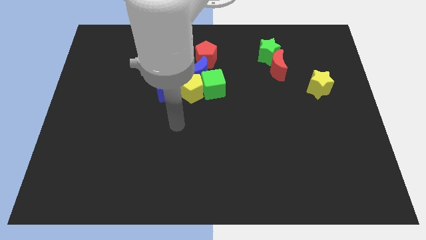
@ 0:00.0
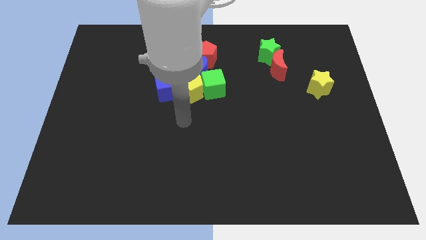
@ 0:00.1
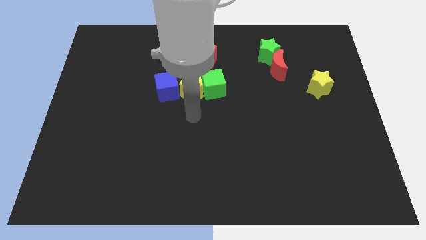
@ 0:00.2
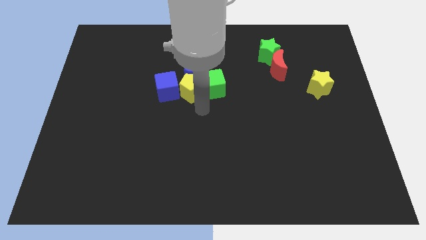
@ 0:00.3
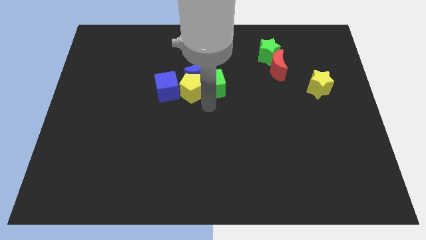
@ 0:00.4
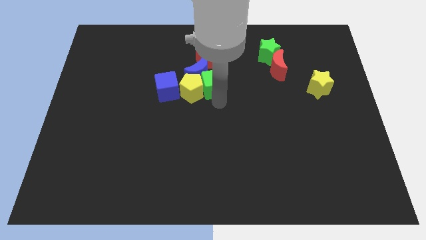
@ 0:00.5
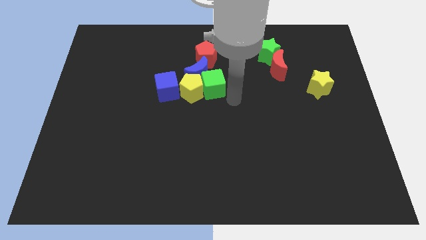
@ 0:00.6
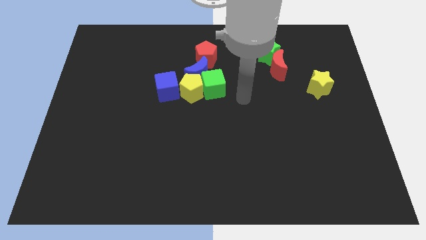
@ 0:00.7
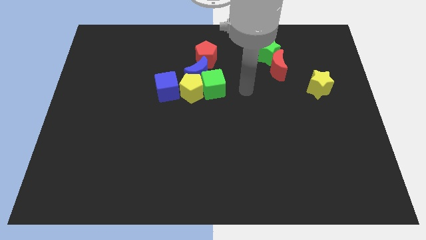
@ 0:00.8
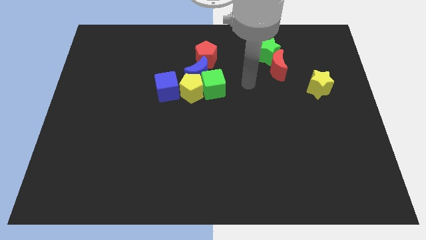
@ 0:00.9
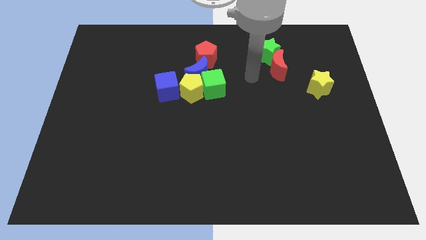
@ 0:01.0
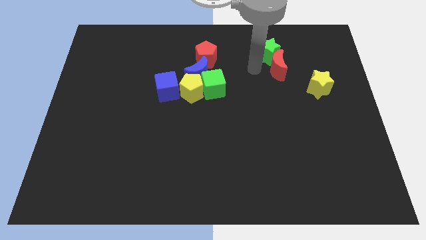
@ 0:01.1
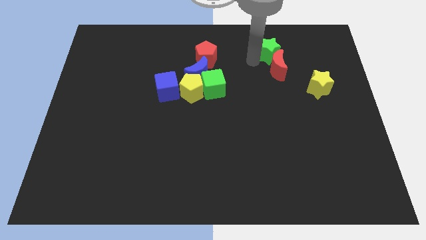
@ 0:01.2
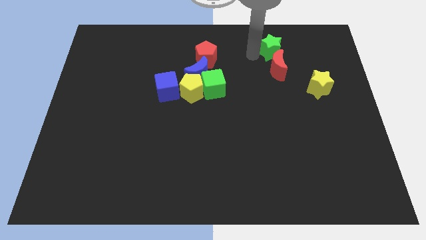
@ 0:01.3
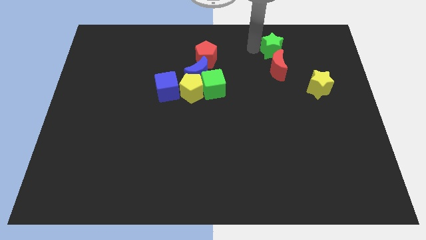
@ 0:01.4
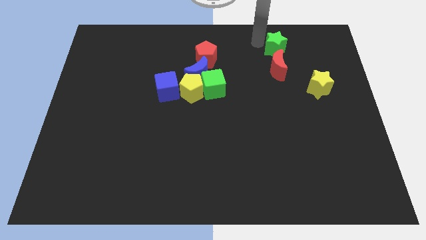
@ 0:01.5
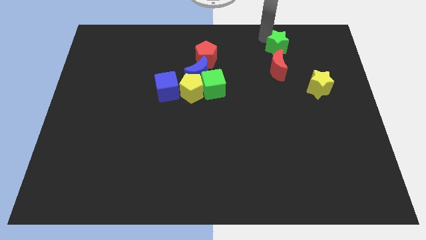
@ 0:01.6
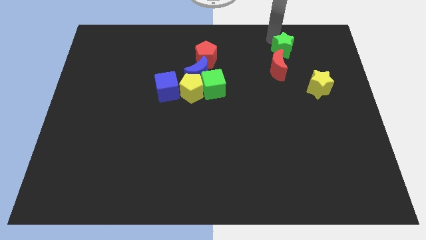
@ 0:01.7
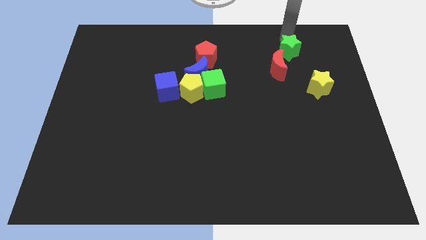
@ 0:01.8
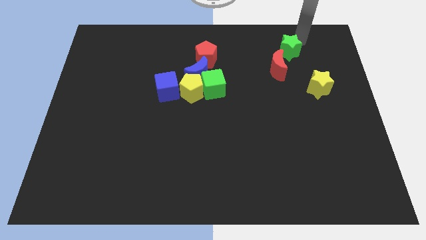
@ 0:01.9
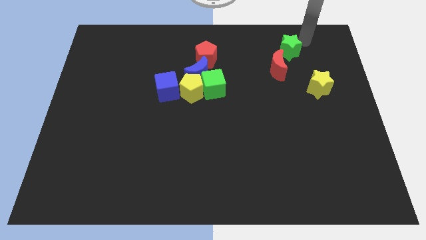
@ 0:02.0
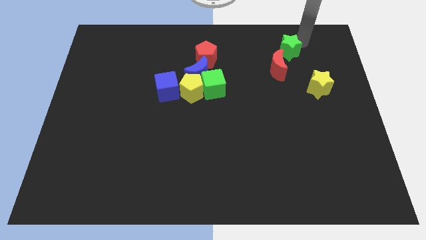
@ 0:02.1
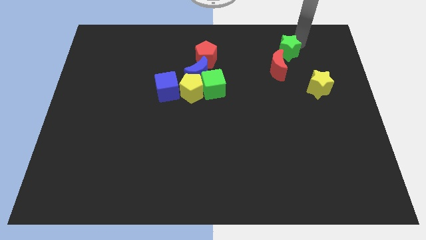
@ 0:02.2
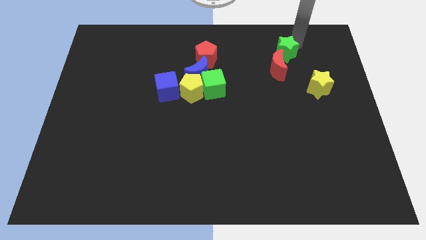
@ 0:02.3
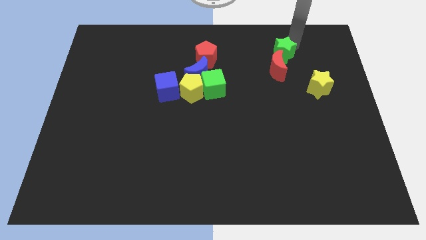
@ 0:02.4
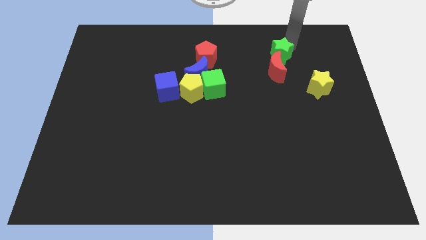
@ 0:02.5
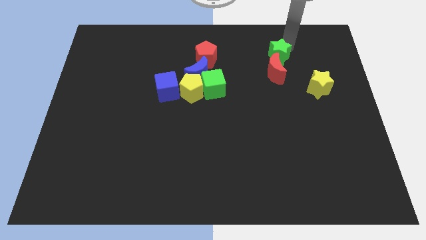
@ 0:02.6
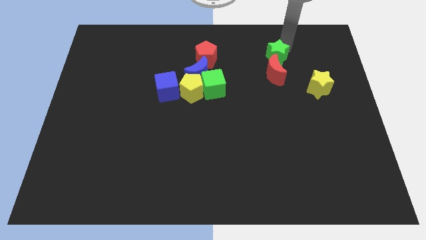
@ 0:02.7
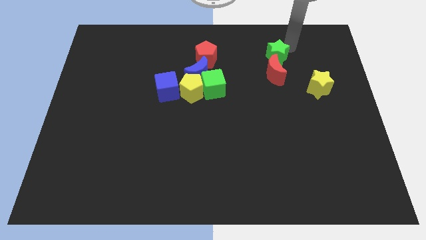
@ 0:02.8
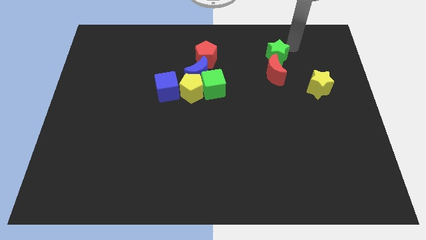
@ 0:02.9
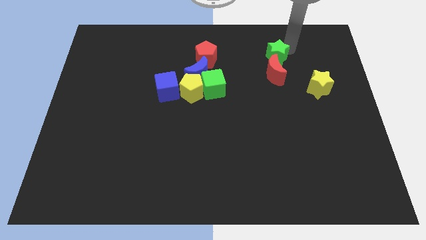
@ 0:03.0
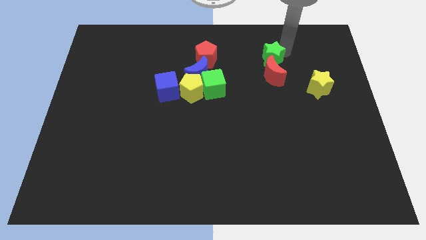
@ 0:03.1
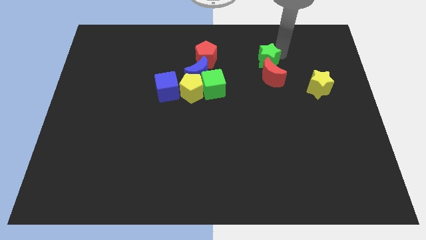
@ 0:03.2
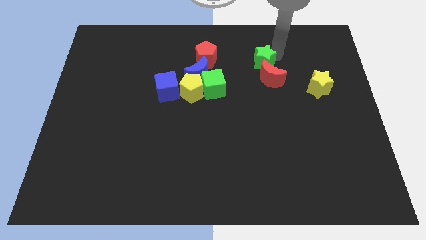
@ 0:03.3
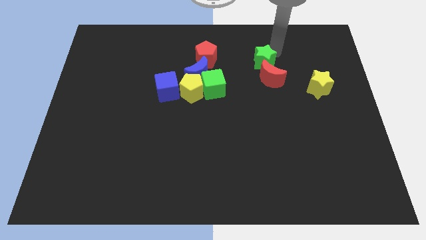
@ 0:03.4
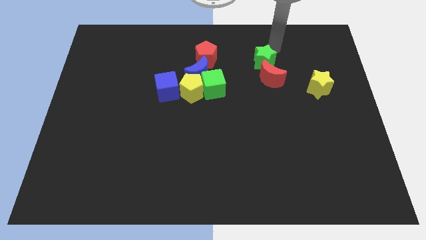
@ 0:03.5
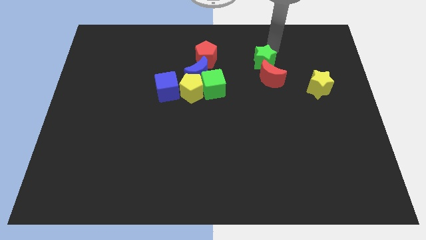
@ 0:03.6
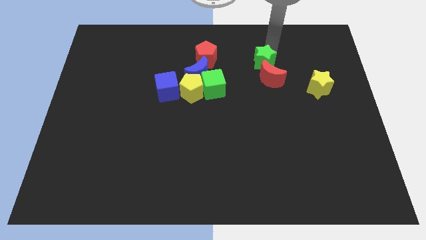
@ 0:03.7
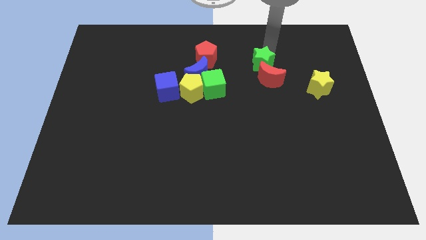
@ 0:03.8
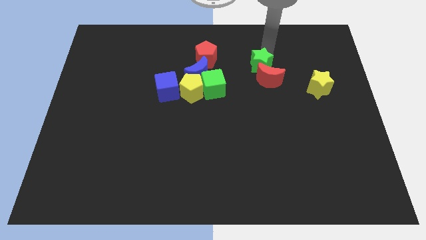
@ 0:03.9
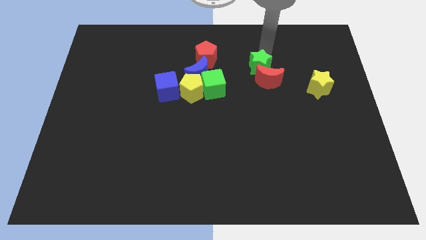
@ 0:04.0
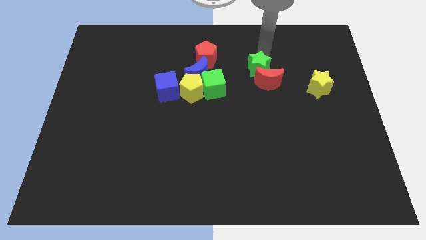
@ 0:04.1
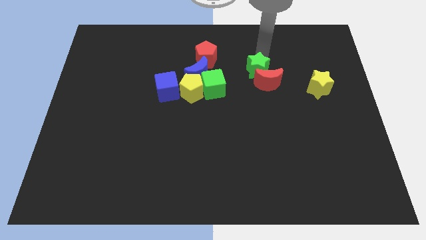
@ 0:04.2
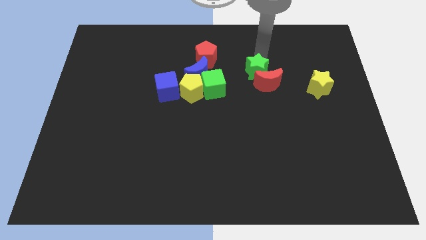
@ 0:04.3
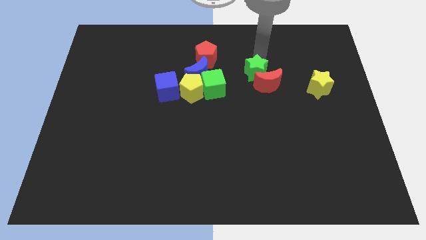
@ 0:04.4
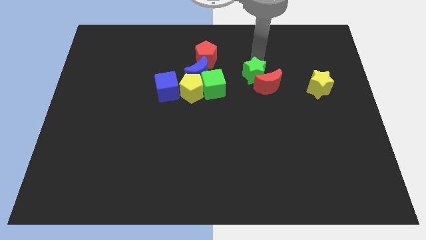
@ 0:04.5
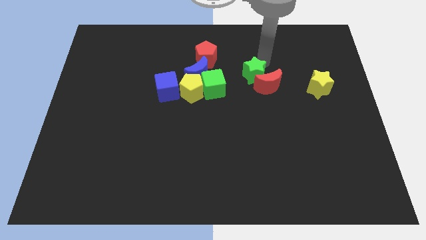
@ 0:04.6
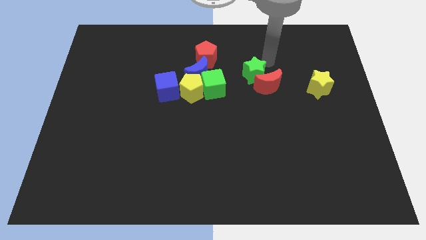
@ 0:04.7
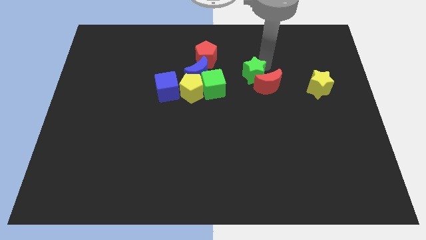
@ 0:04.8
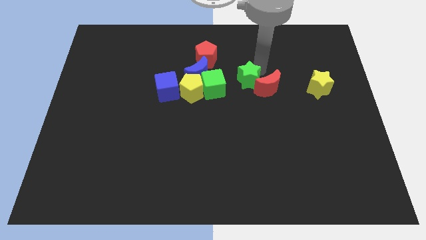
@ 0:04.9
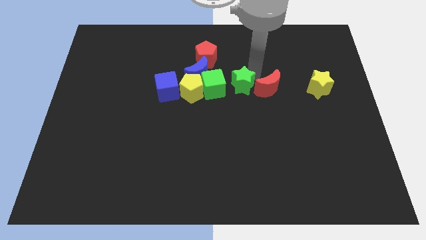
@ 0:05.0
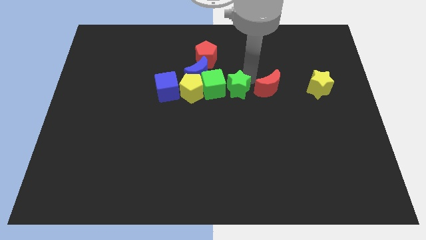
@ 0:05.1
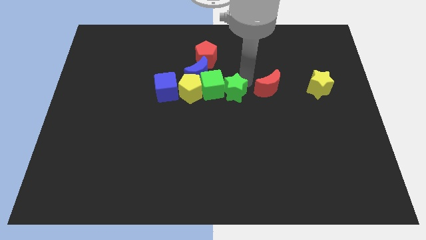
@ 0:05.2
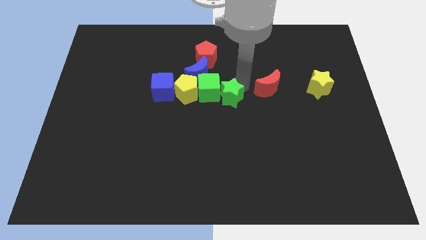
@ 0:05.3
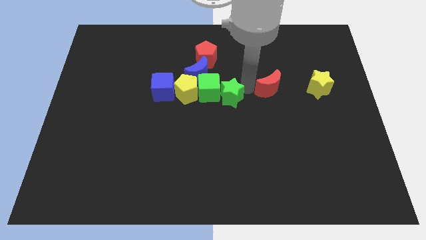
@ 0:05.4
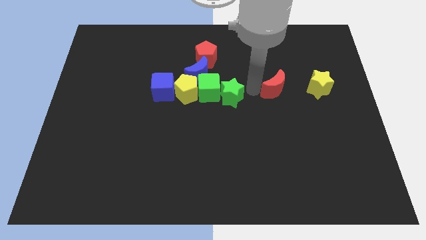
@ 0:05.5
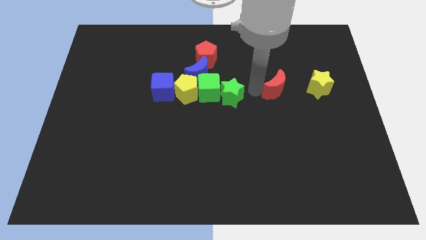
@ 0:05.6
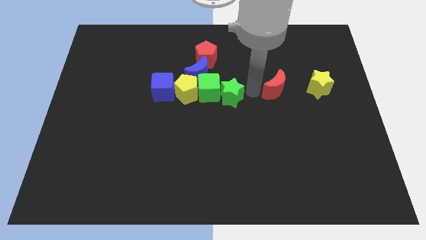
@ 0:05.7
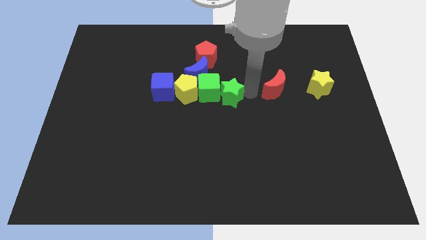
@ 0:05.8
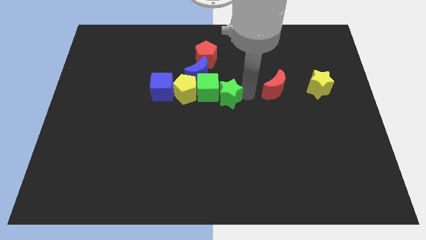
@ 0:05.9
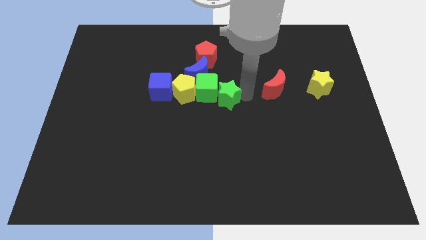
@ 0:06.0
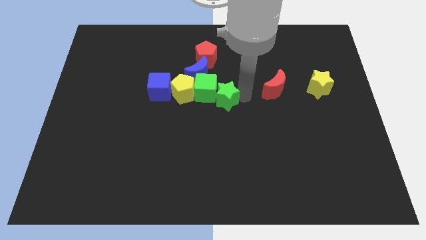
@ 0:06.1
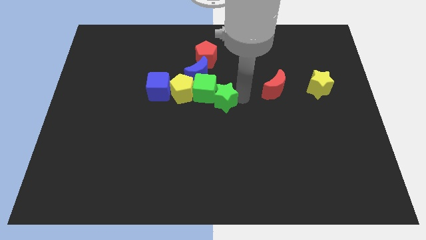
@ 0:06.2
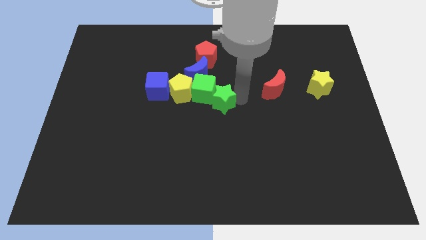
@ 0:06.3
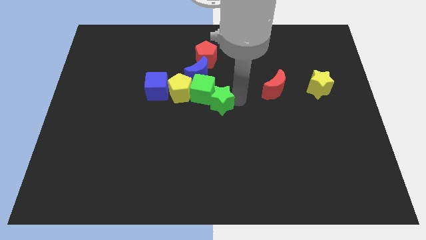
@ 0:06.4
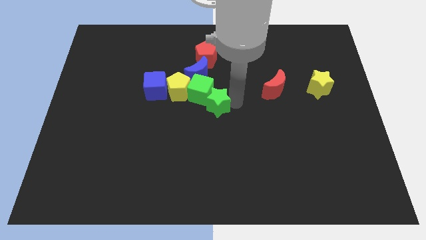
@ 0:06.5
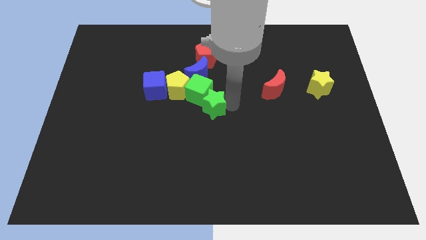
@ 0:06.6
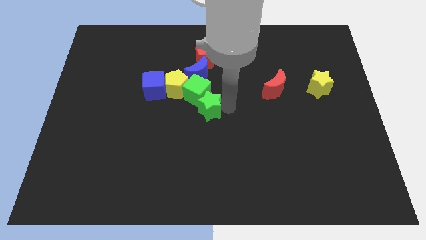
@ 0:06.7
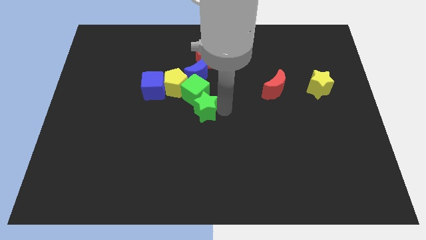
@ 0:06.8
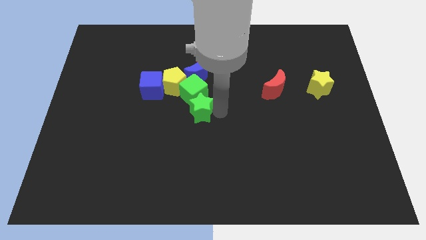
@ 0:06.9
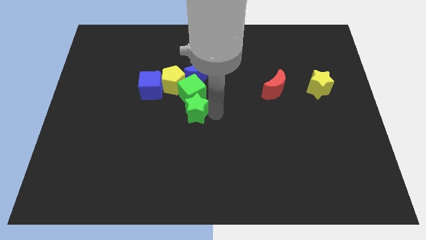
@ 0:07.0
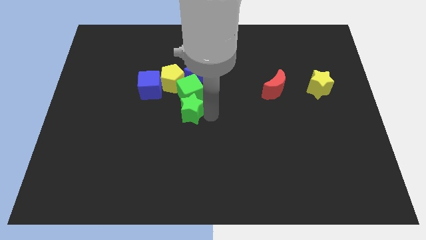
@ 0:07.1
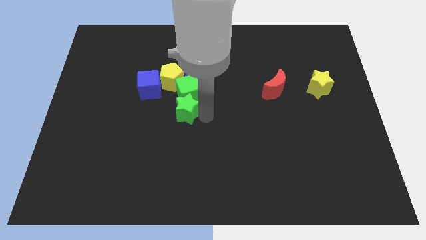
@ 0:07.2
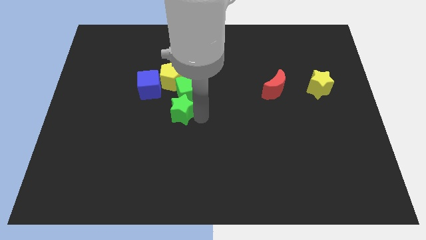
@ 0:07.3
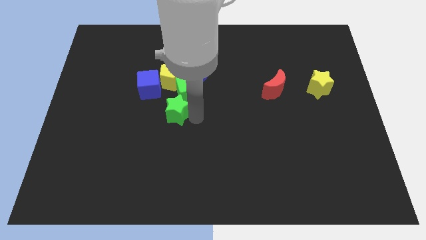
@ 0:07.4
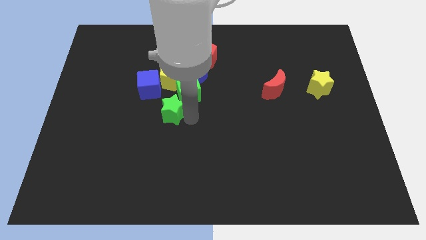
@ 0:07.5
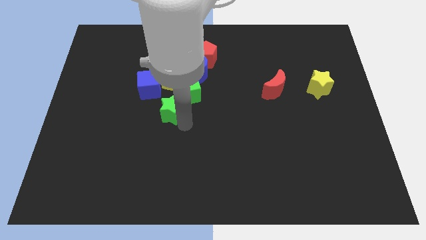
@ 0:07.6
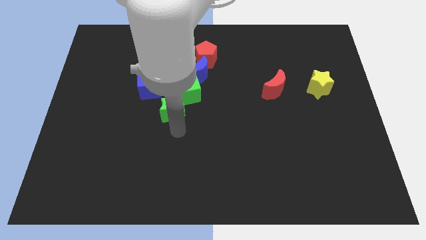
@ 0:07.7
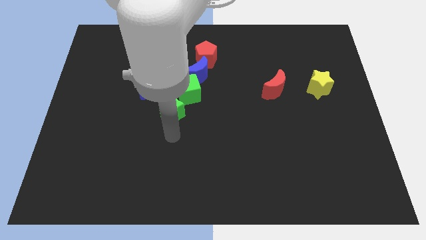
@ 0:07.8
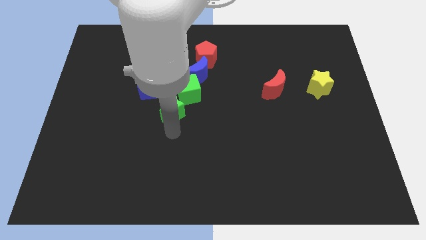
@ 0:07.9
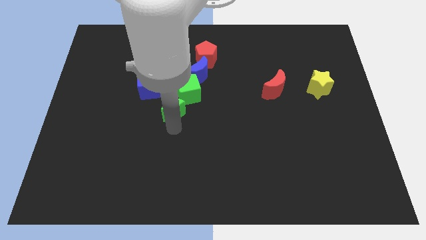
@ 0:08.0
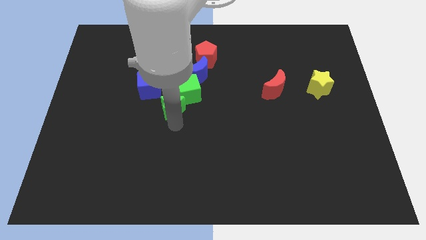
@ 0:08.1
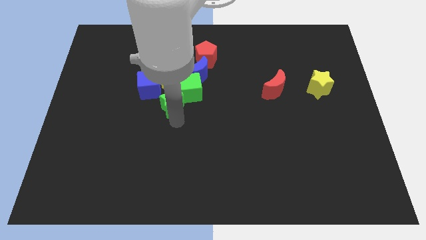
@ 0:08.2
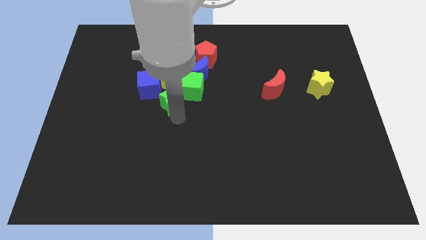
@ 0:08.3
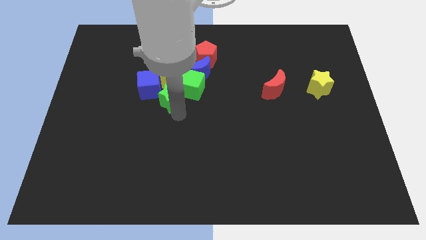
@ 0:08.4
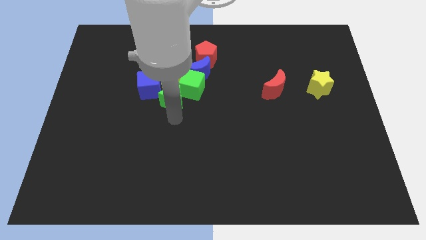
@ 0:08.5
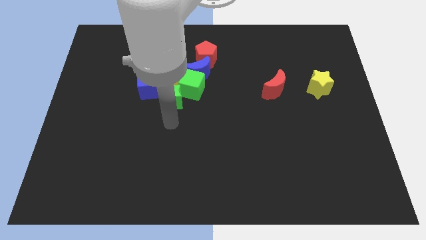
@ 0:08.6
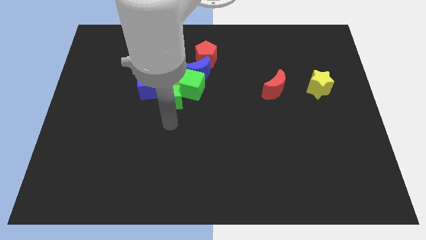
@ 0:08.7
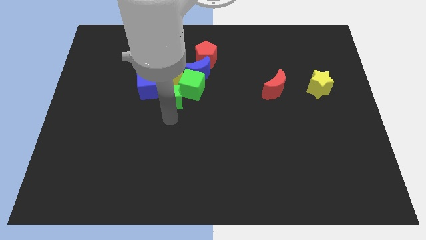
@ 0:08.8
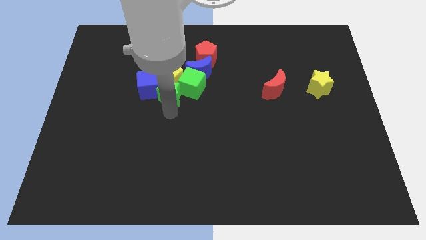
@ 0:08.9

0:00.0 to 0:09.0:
slide the green star towards the yellow pentagon
